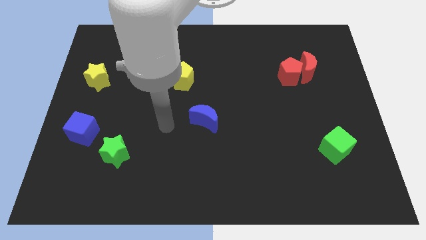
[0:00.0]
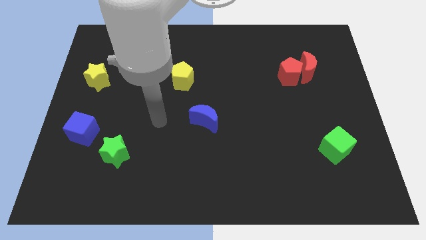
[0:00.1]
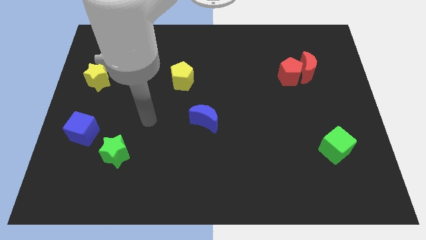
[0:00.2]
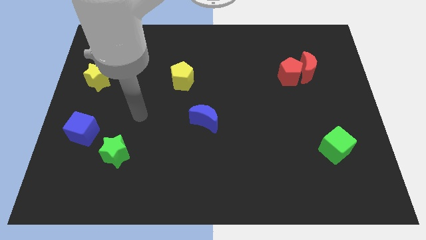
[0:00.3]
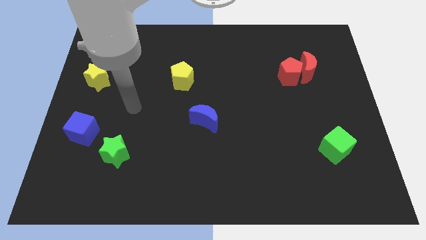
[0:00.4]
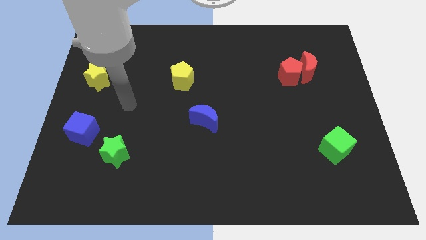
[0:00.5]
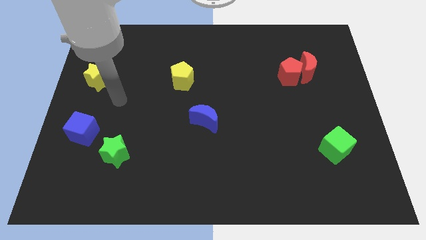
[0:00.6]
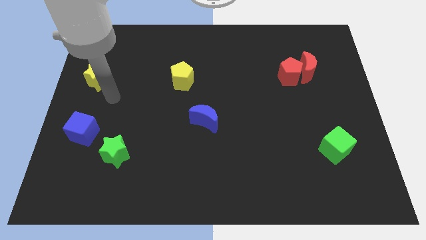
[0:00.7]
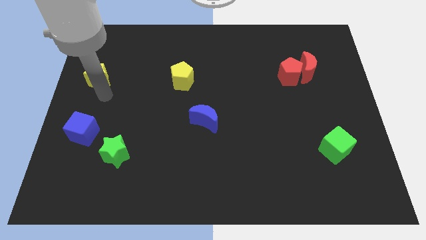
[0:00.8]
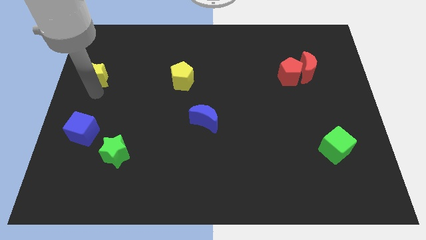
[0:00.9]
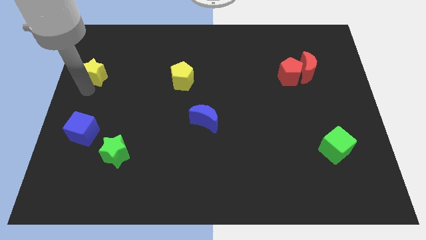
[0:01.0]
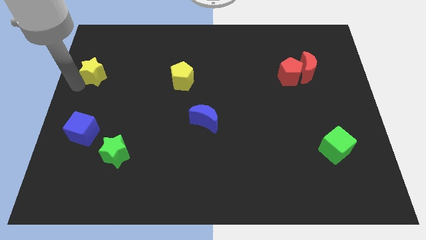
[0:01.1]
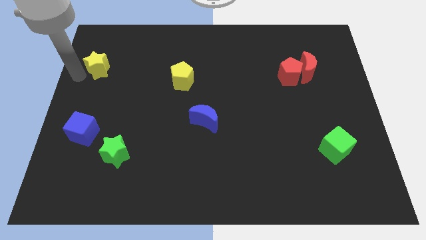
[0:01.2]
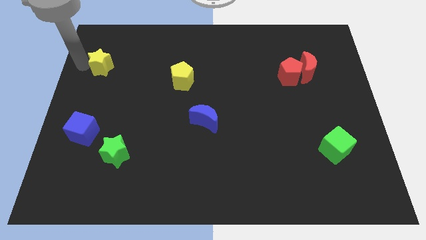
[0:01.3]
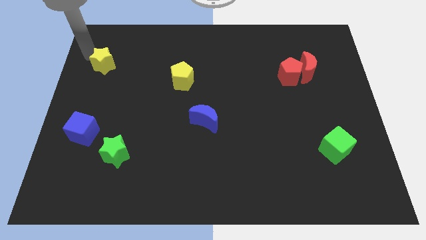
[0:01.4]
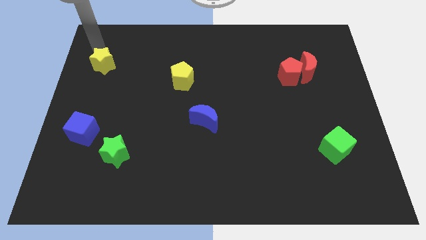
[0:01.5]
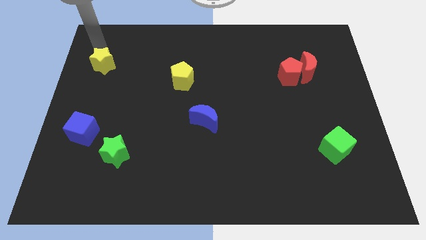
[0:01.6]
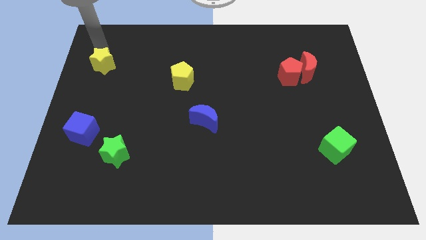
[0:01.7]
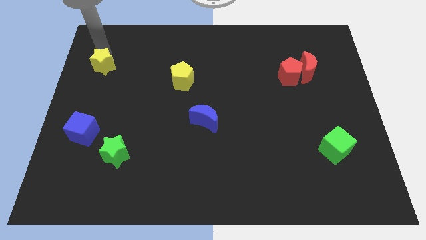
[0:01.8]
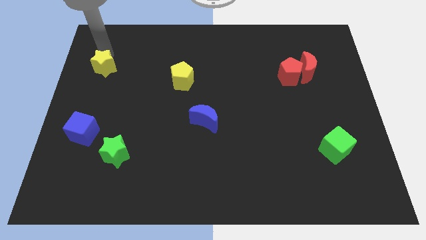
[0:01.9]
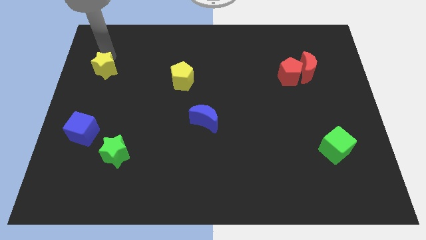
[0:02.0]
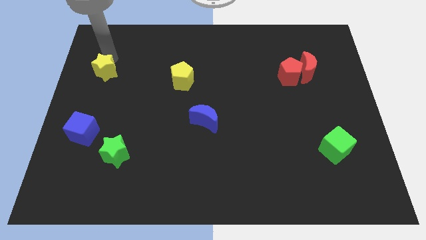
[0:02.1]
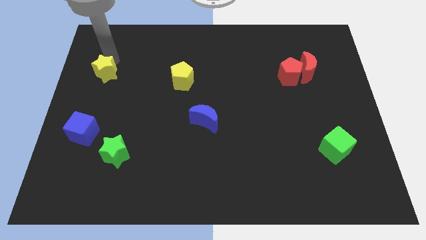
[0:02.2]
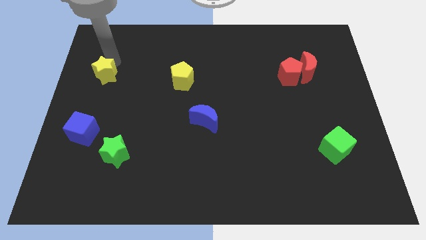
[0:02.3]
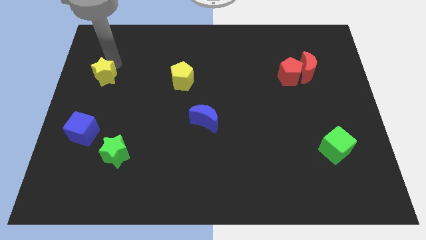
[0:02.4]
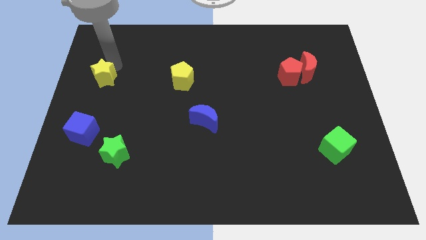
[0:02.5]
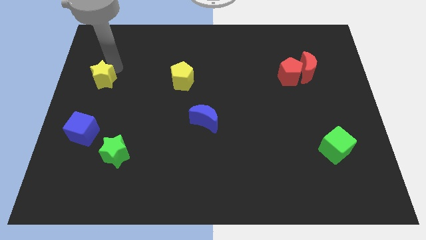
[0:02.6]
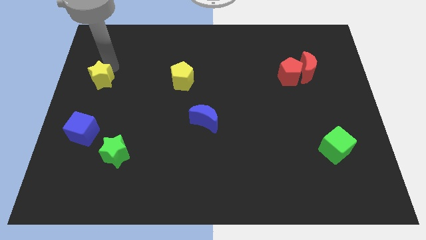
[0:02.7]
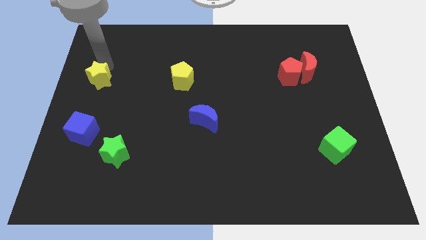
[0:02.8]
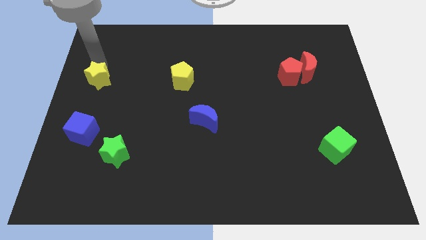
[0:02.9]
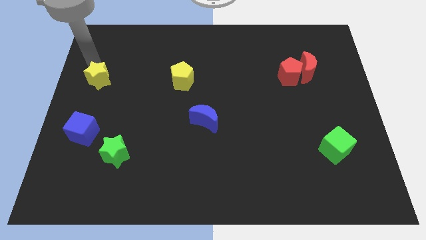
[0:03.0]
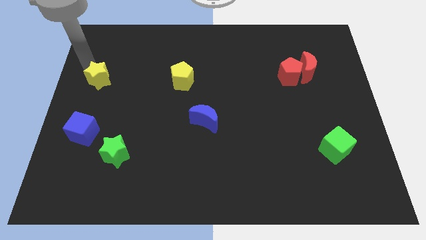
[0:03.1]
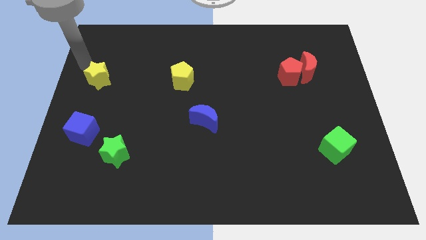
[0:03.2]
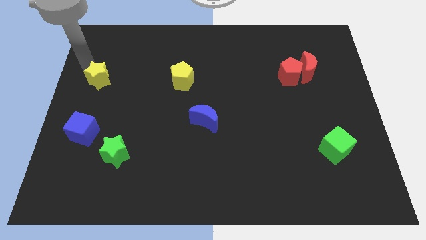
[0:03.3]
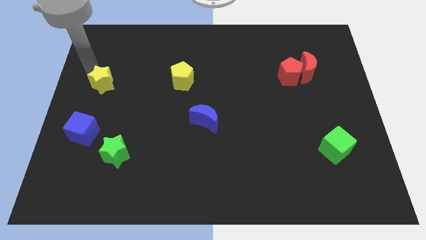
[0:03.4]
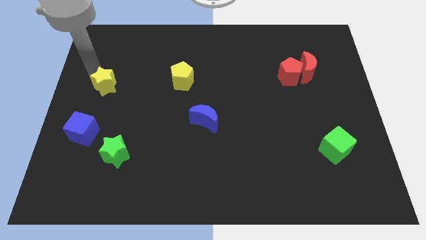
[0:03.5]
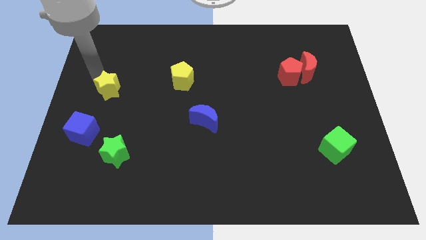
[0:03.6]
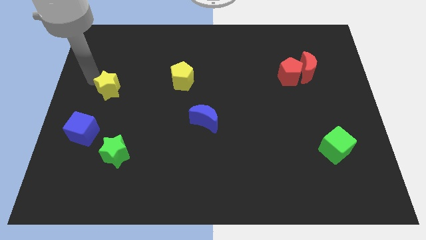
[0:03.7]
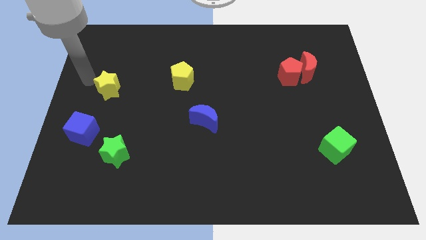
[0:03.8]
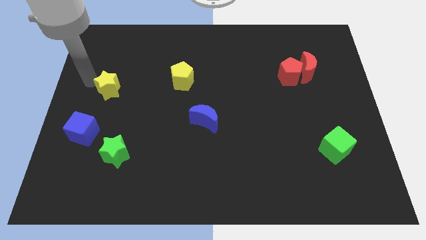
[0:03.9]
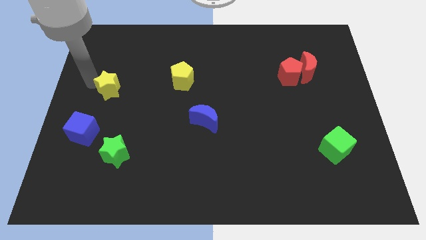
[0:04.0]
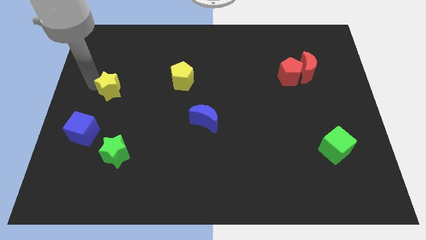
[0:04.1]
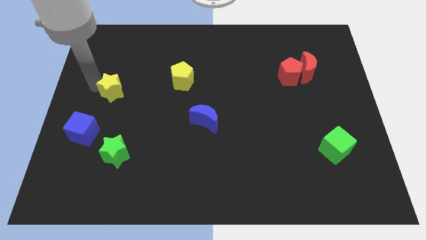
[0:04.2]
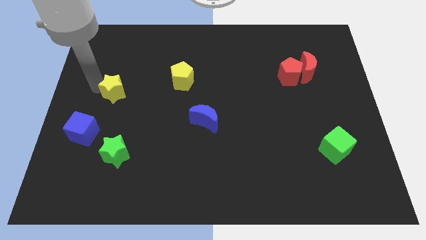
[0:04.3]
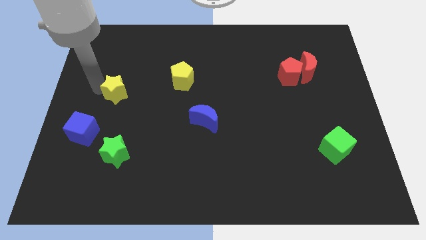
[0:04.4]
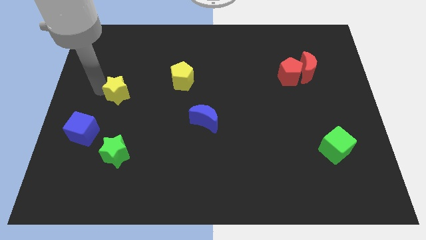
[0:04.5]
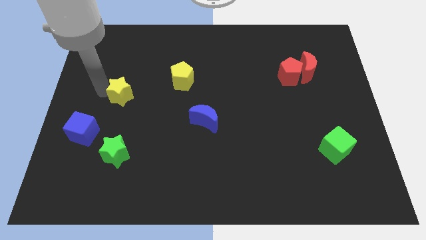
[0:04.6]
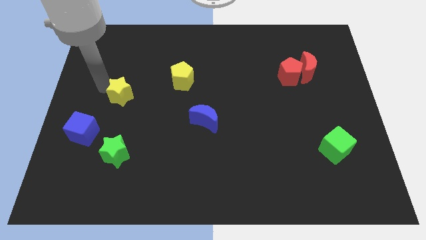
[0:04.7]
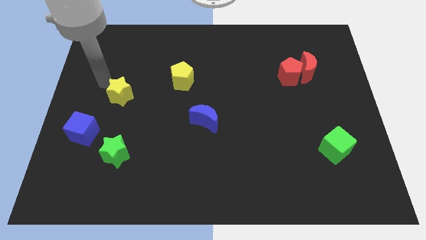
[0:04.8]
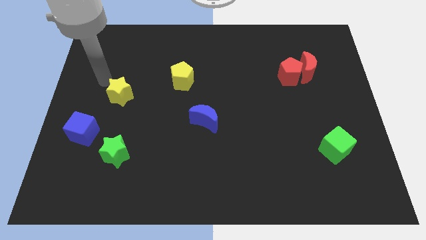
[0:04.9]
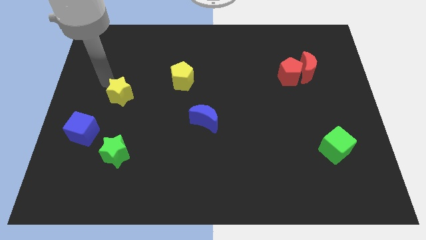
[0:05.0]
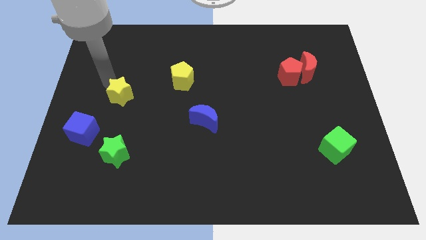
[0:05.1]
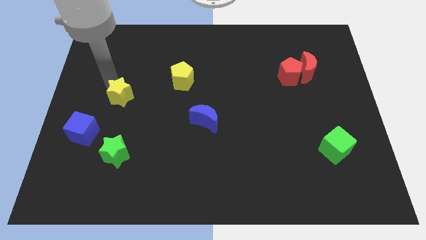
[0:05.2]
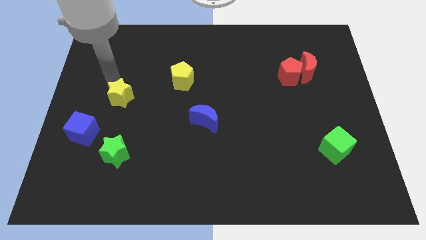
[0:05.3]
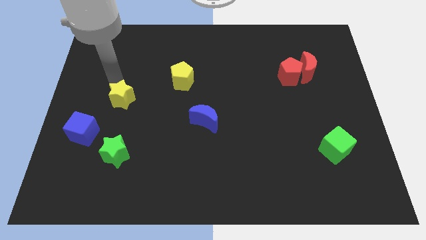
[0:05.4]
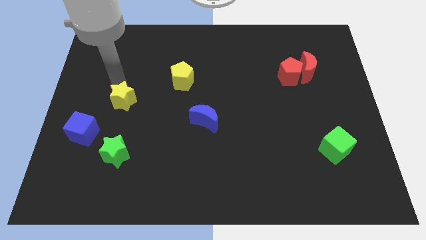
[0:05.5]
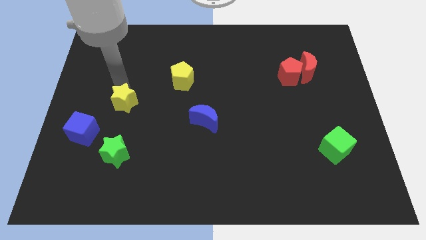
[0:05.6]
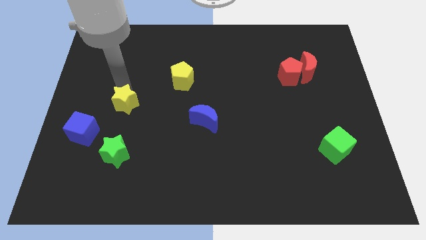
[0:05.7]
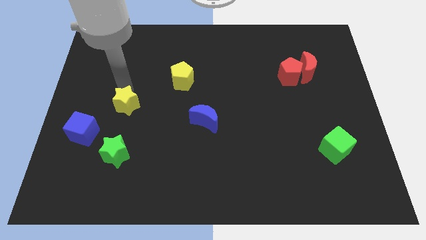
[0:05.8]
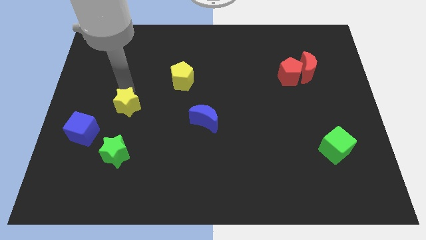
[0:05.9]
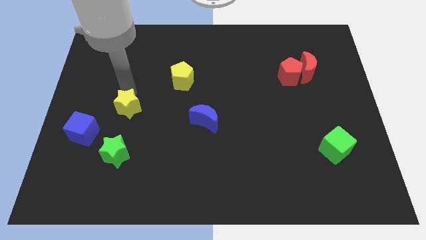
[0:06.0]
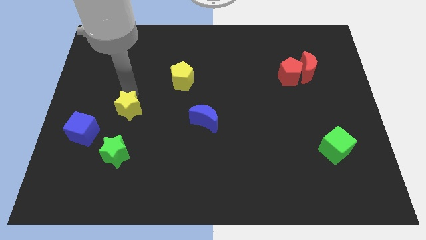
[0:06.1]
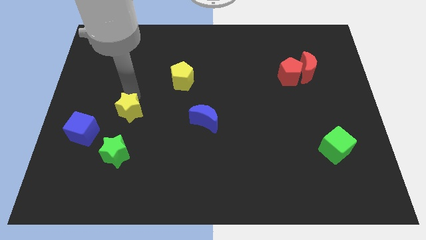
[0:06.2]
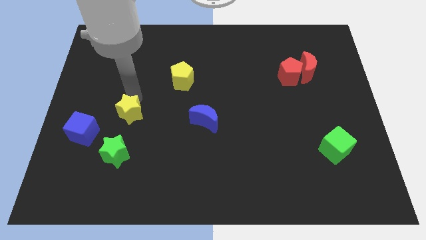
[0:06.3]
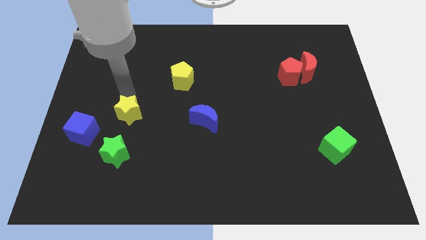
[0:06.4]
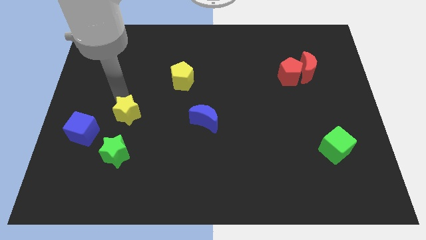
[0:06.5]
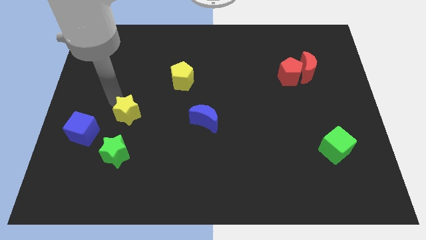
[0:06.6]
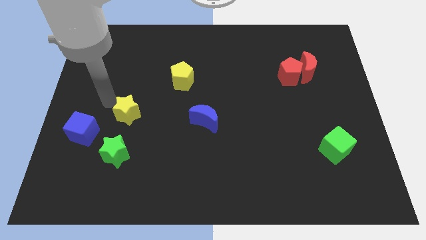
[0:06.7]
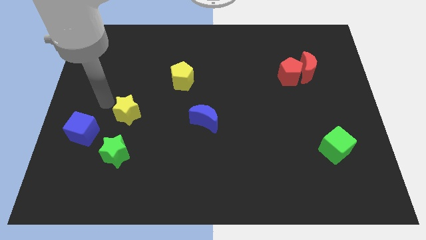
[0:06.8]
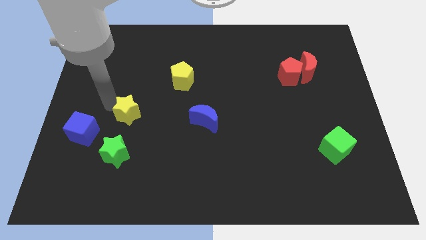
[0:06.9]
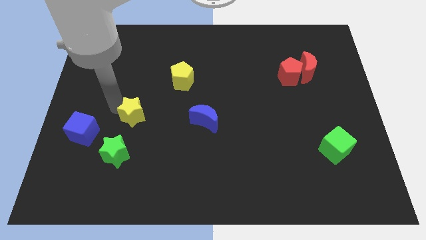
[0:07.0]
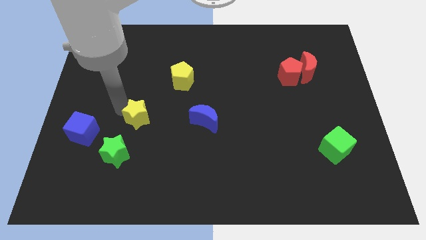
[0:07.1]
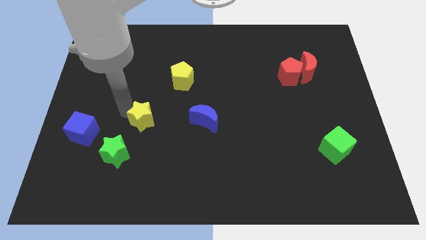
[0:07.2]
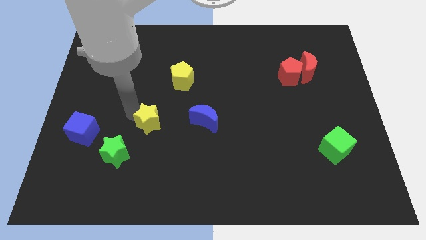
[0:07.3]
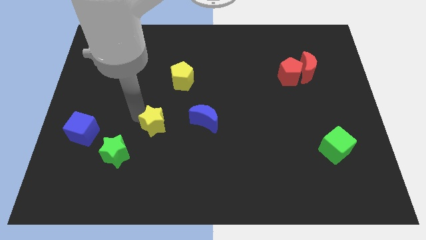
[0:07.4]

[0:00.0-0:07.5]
slide the yellow star downwards and to the right

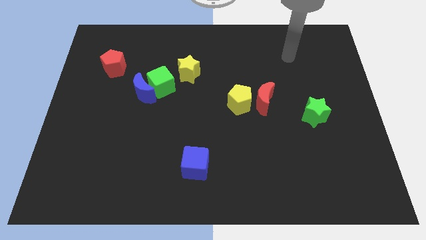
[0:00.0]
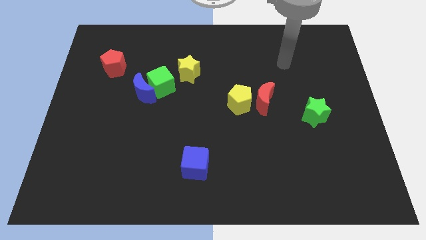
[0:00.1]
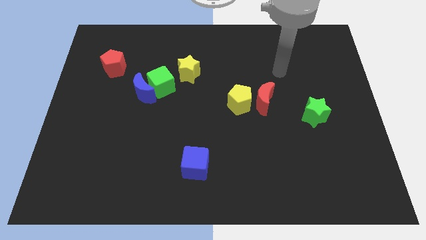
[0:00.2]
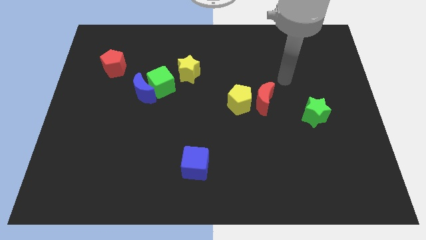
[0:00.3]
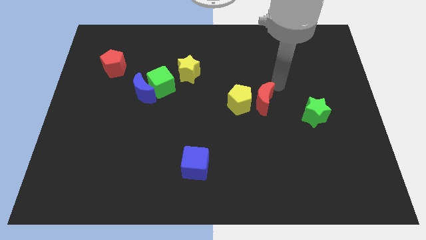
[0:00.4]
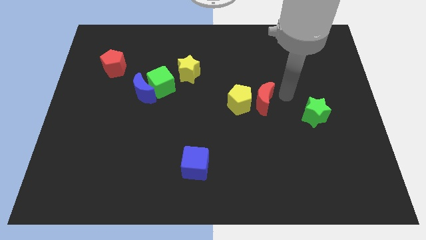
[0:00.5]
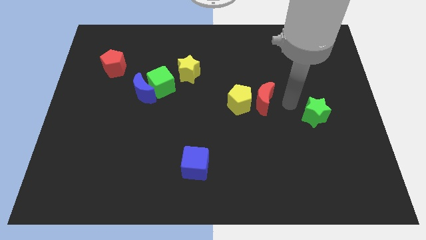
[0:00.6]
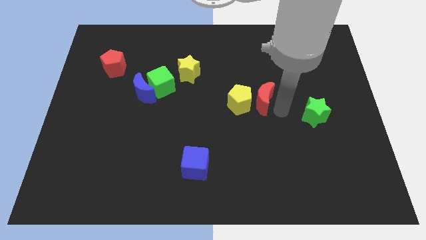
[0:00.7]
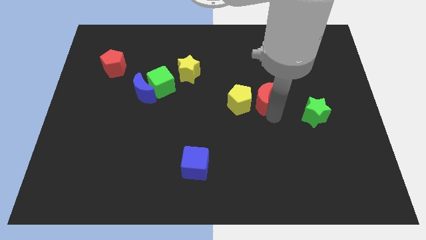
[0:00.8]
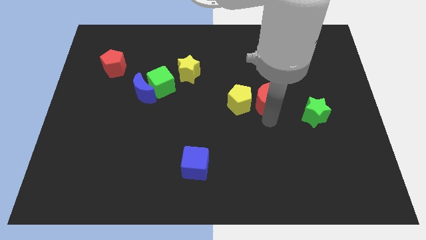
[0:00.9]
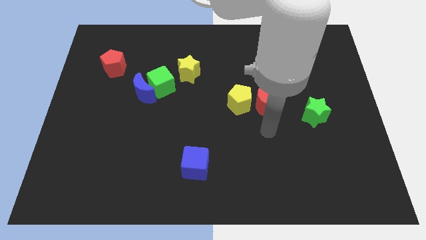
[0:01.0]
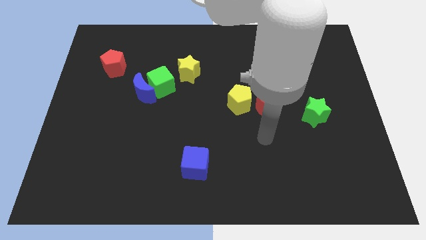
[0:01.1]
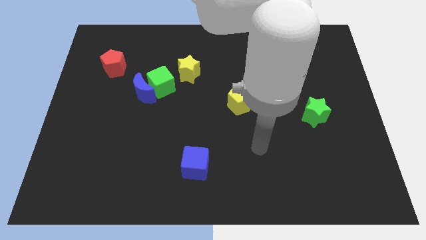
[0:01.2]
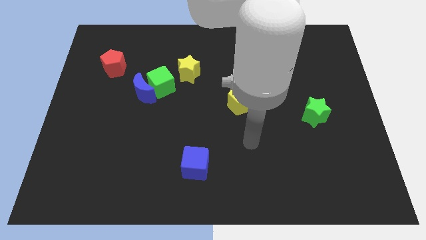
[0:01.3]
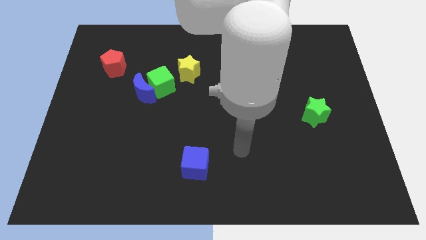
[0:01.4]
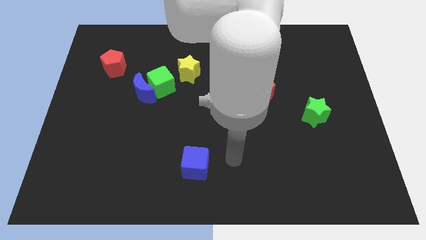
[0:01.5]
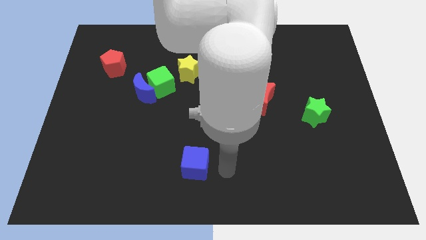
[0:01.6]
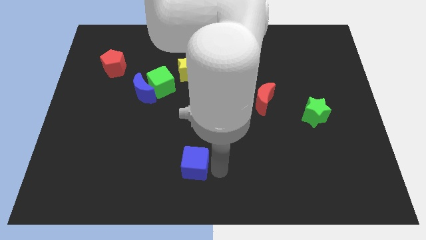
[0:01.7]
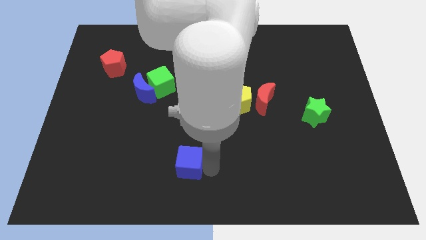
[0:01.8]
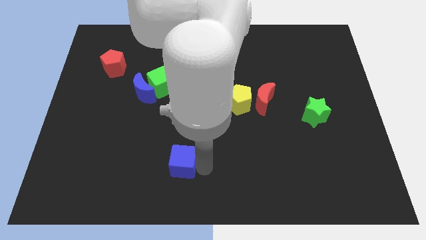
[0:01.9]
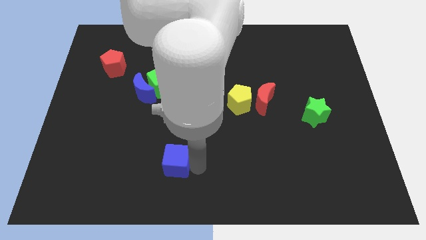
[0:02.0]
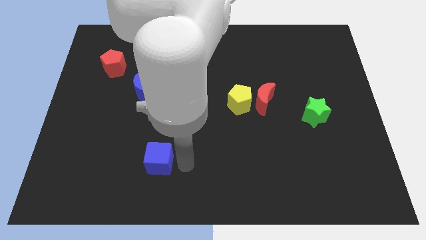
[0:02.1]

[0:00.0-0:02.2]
push the blue cube slightly to the left
